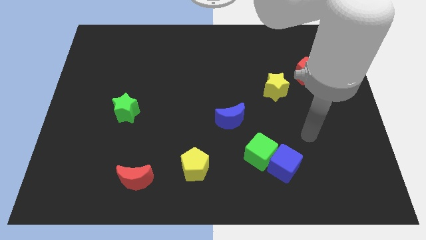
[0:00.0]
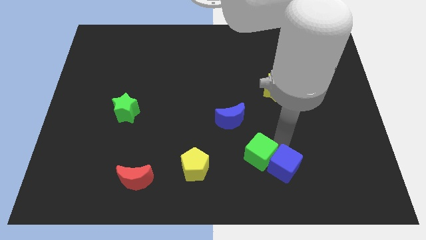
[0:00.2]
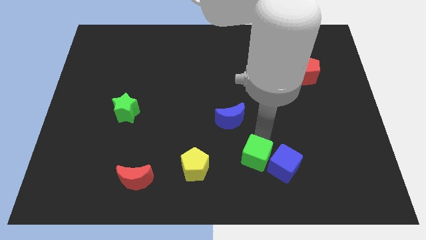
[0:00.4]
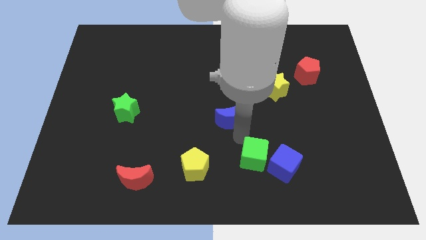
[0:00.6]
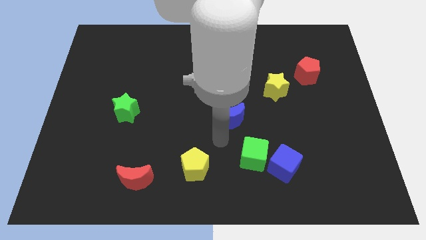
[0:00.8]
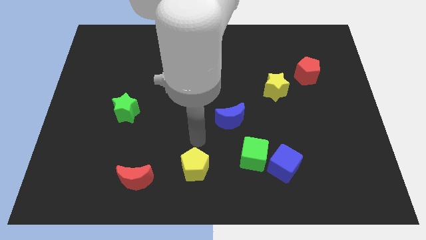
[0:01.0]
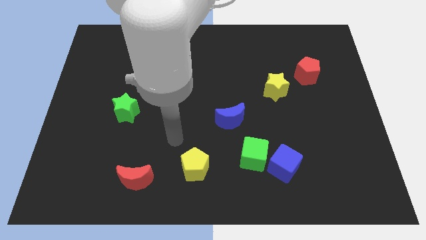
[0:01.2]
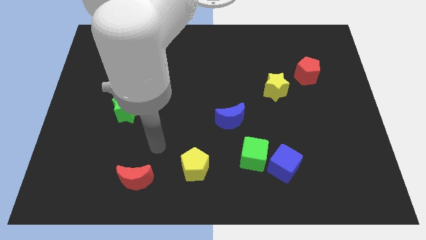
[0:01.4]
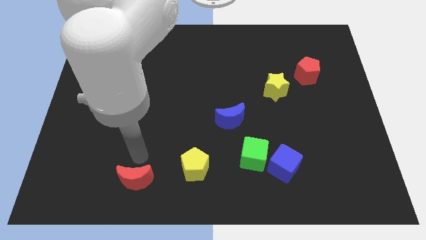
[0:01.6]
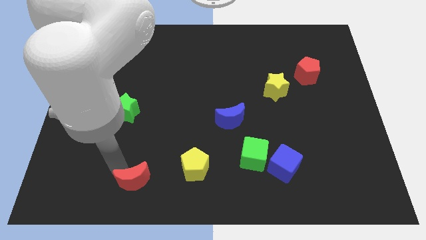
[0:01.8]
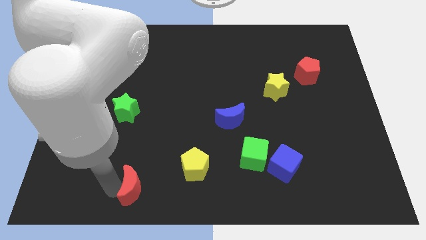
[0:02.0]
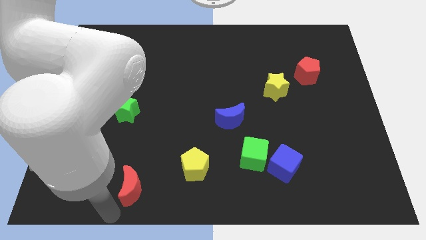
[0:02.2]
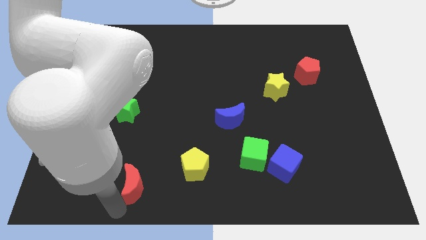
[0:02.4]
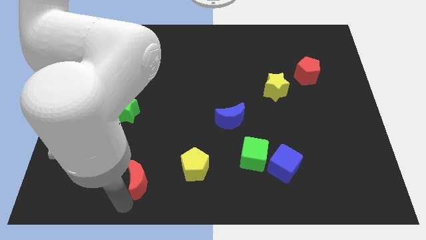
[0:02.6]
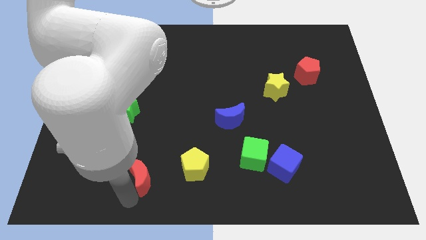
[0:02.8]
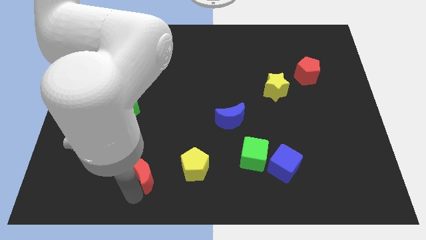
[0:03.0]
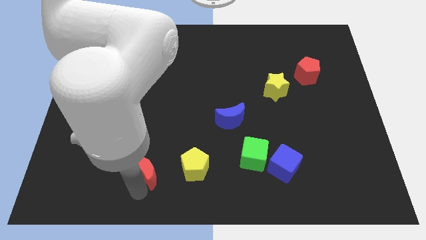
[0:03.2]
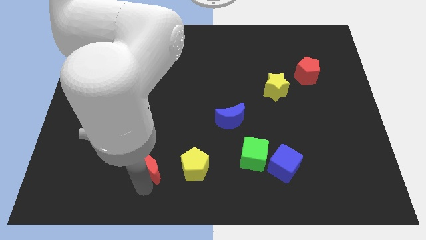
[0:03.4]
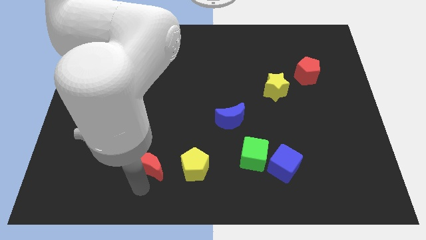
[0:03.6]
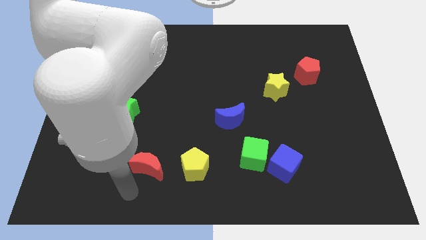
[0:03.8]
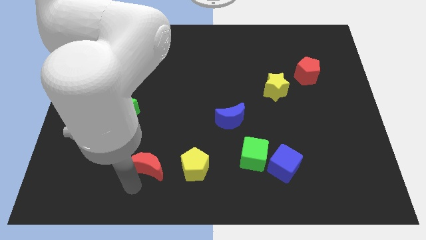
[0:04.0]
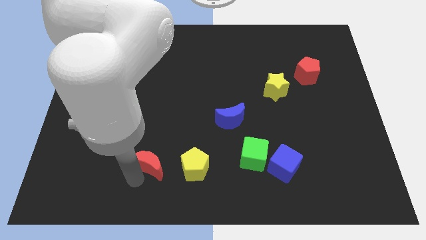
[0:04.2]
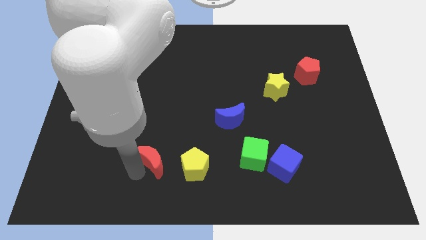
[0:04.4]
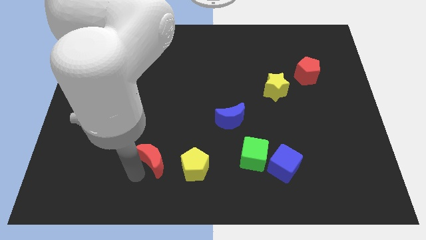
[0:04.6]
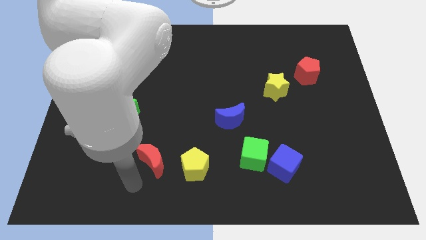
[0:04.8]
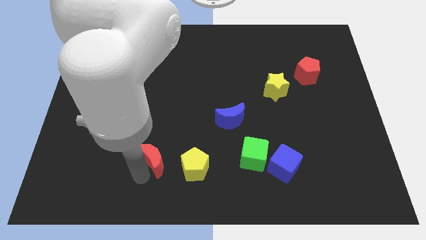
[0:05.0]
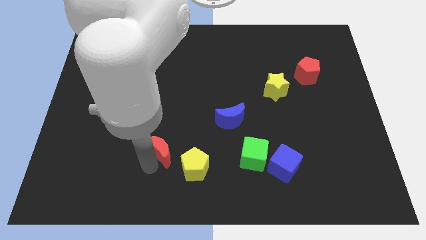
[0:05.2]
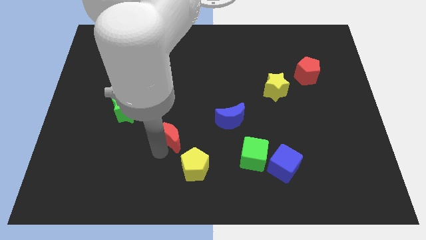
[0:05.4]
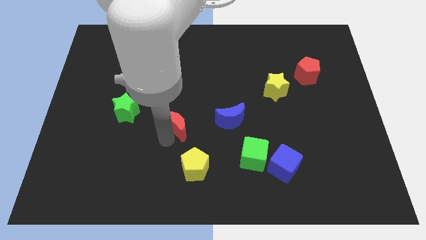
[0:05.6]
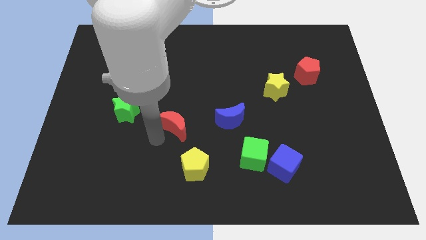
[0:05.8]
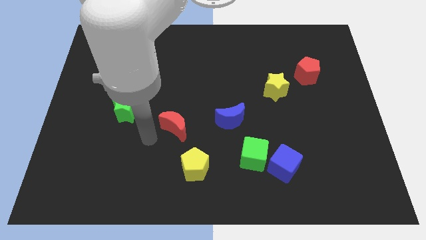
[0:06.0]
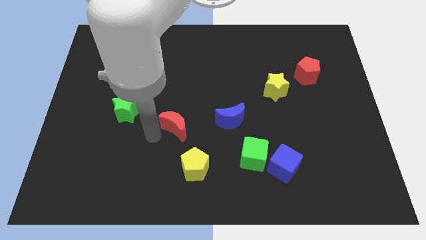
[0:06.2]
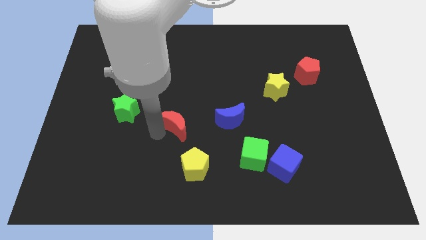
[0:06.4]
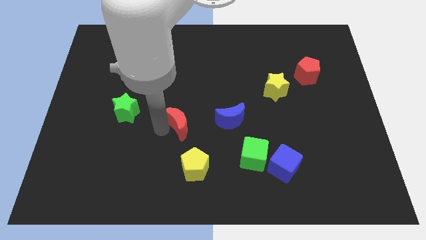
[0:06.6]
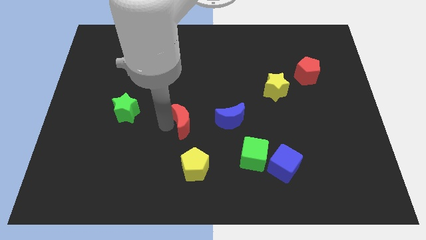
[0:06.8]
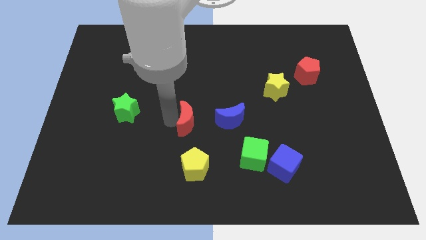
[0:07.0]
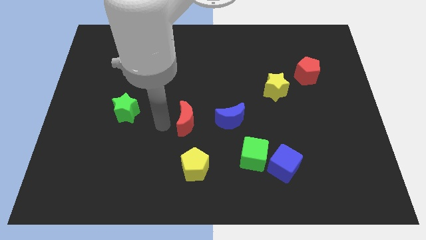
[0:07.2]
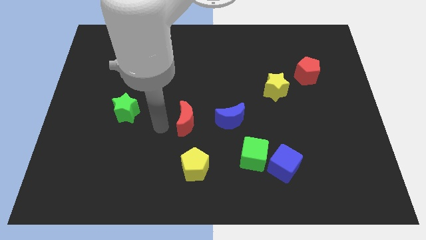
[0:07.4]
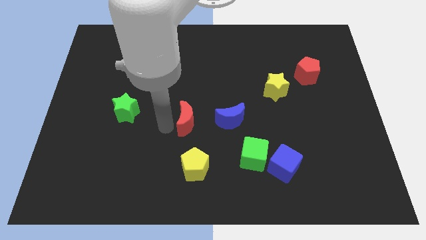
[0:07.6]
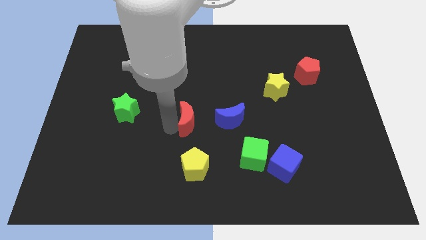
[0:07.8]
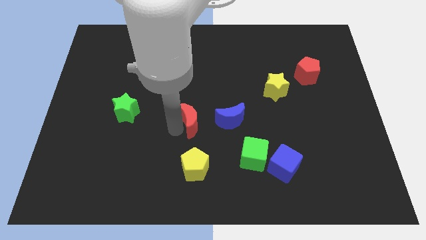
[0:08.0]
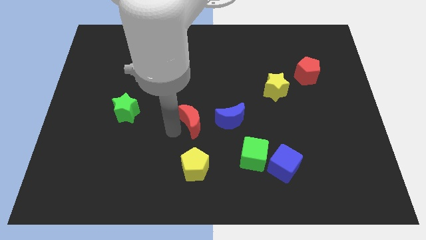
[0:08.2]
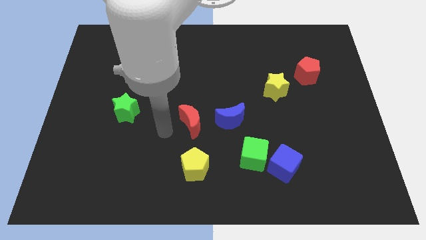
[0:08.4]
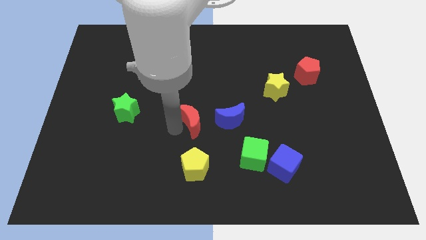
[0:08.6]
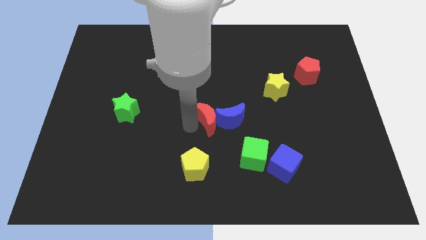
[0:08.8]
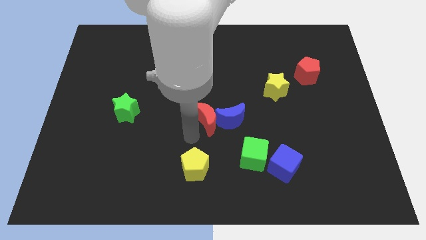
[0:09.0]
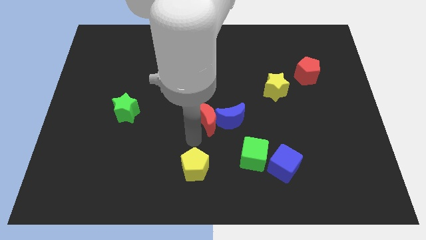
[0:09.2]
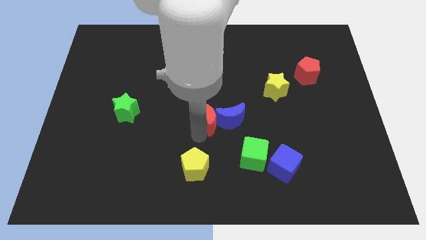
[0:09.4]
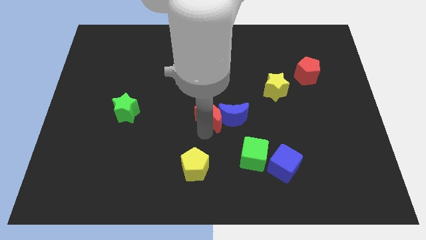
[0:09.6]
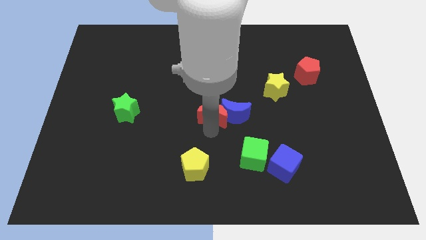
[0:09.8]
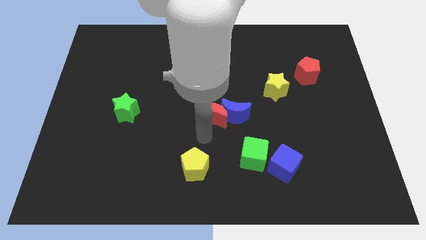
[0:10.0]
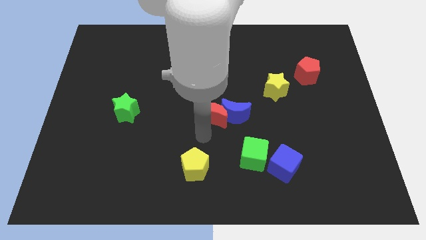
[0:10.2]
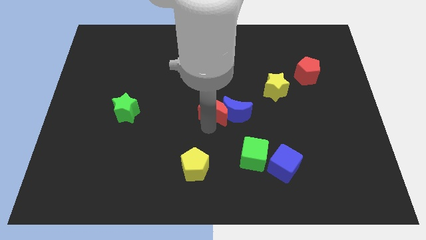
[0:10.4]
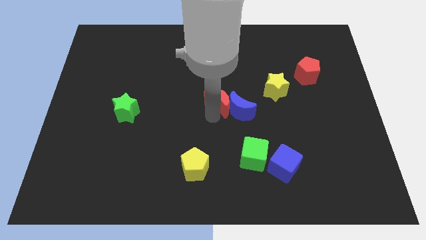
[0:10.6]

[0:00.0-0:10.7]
slide the red moon to the left of the yellow star

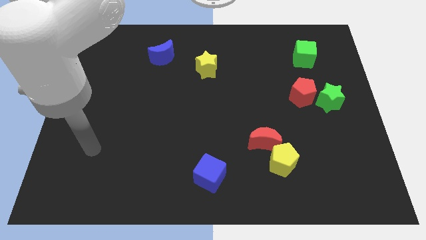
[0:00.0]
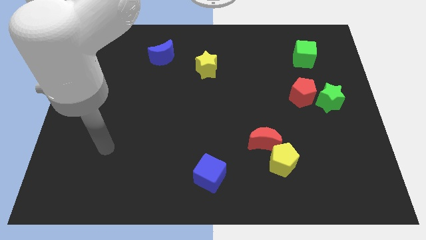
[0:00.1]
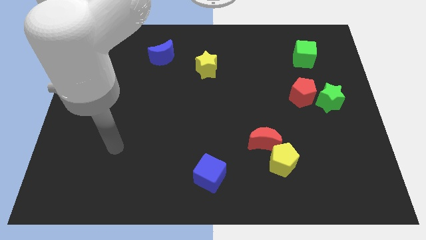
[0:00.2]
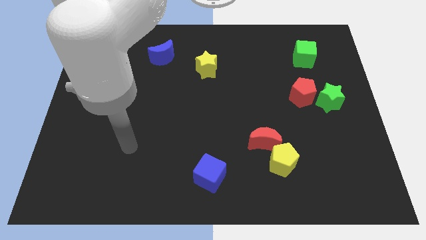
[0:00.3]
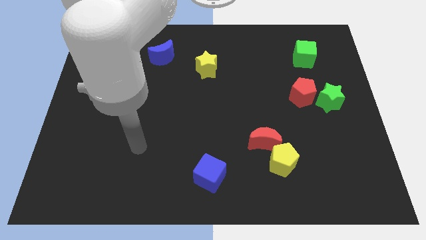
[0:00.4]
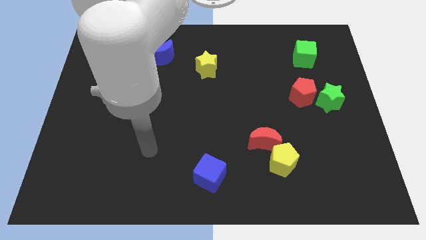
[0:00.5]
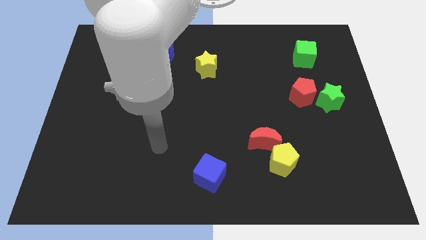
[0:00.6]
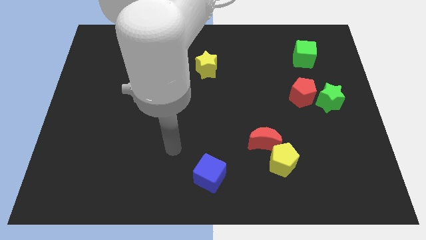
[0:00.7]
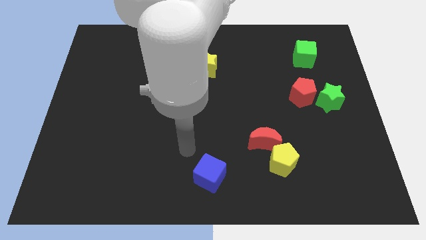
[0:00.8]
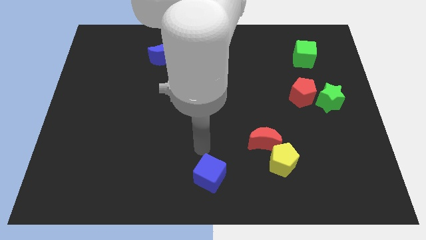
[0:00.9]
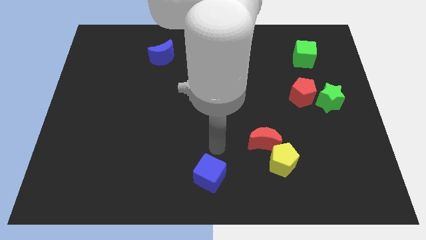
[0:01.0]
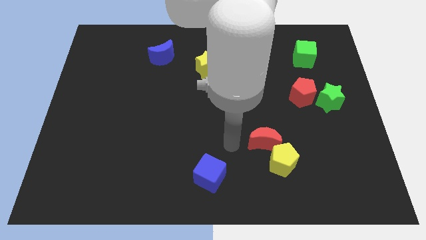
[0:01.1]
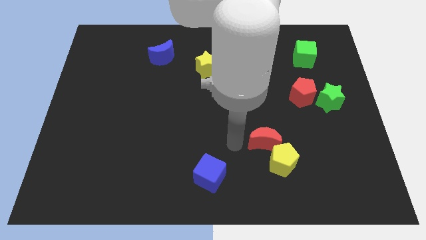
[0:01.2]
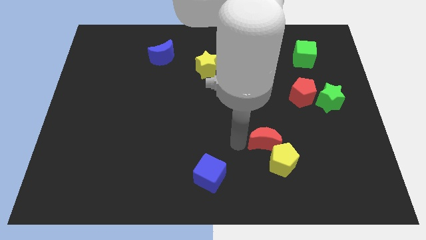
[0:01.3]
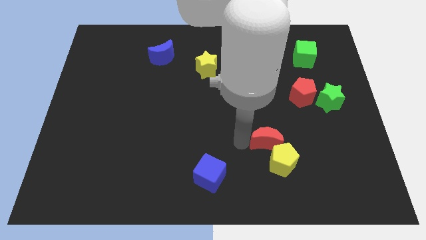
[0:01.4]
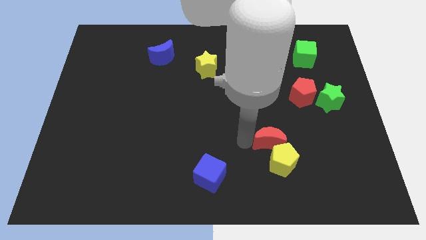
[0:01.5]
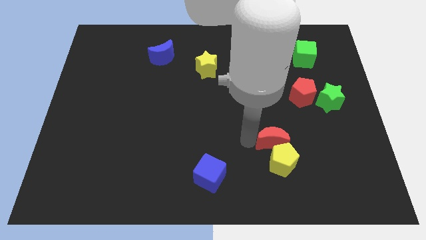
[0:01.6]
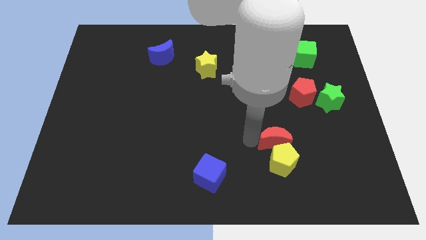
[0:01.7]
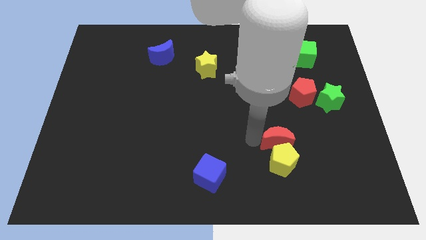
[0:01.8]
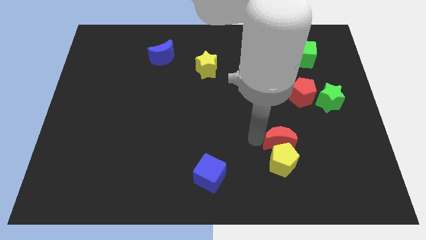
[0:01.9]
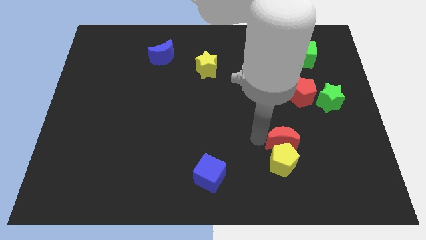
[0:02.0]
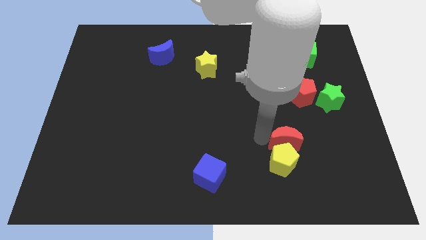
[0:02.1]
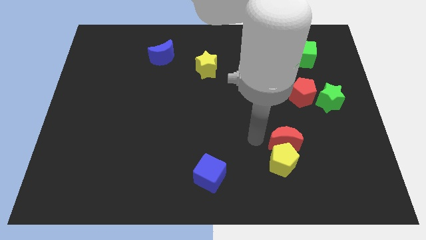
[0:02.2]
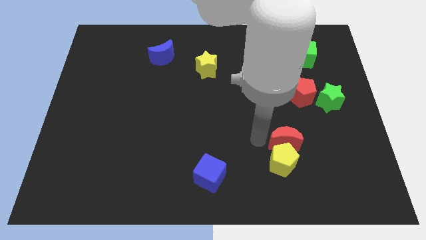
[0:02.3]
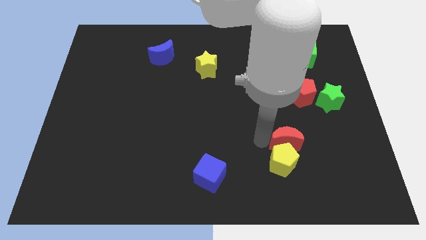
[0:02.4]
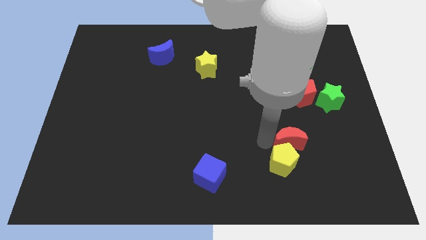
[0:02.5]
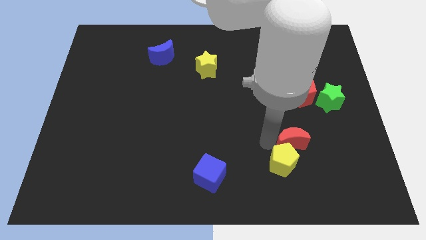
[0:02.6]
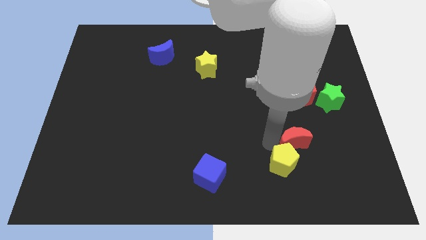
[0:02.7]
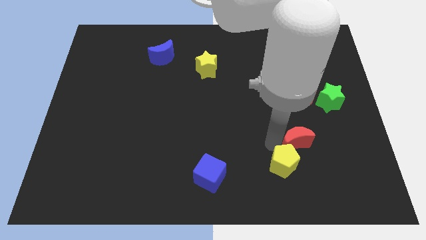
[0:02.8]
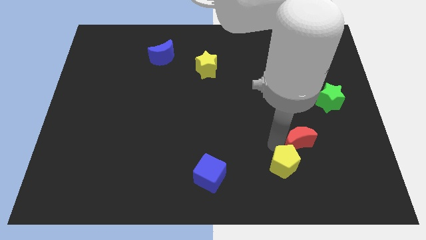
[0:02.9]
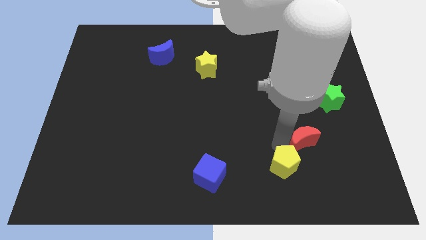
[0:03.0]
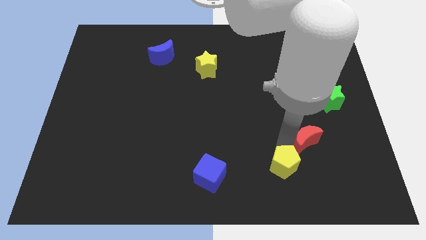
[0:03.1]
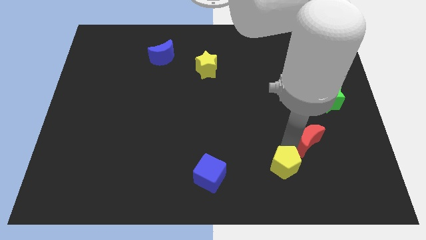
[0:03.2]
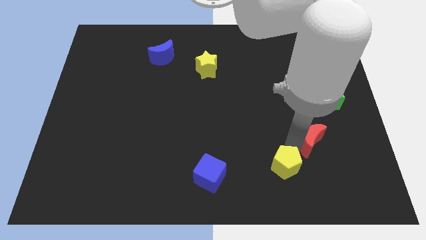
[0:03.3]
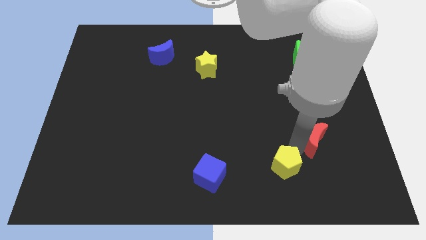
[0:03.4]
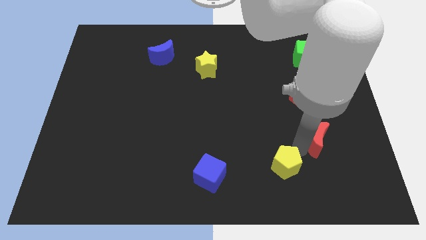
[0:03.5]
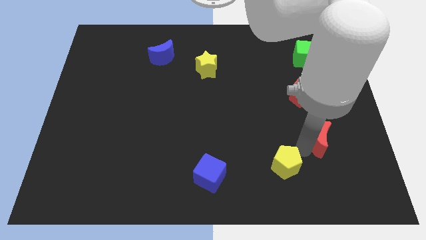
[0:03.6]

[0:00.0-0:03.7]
push the red moon below the green star
